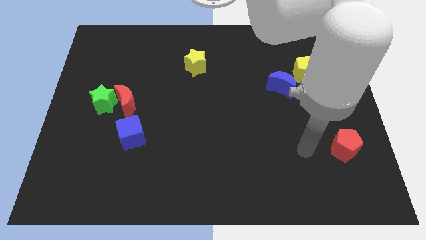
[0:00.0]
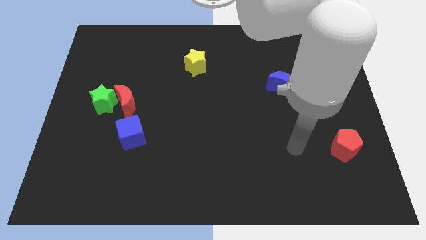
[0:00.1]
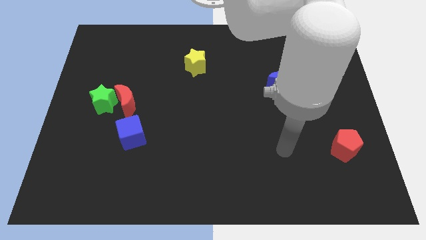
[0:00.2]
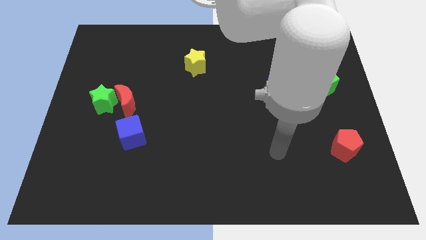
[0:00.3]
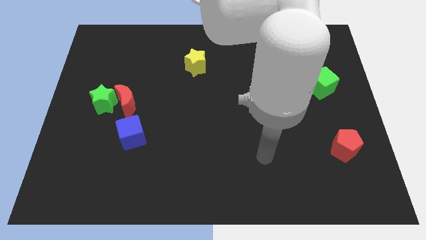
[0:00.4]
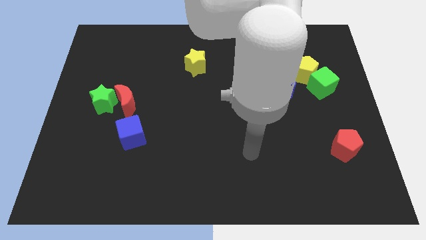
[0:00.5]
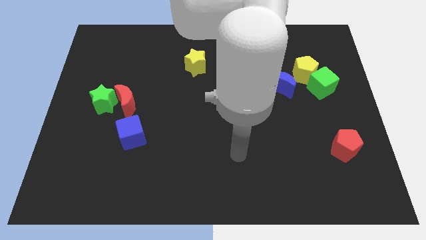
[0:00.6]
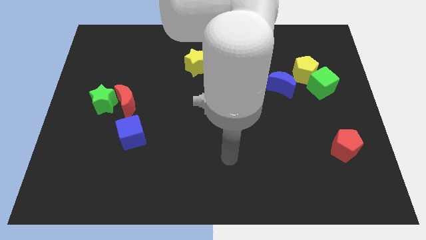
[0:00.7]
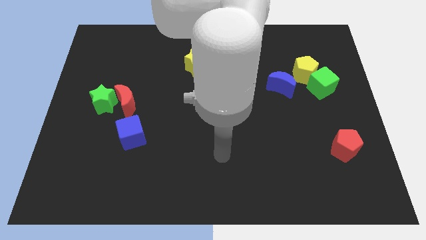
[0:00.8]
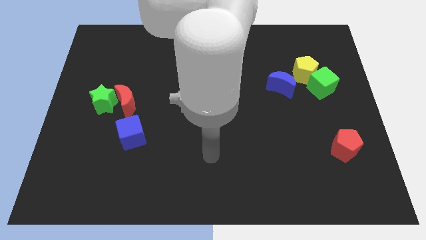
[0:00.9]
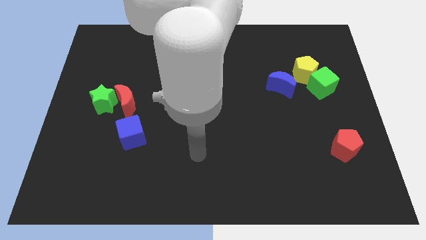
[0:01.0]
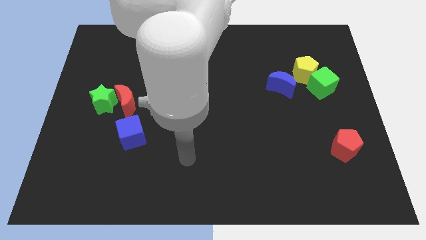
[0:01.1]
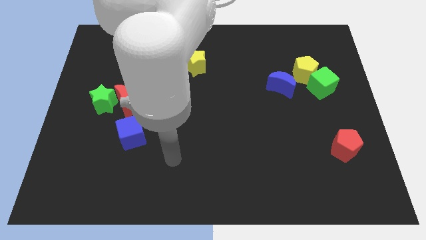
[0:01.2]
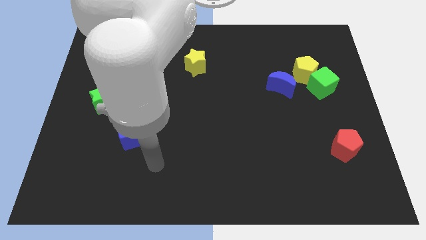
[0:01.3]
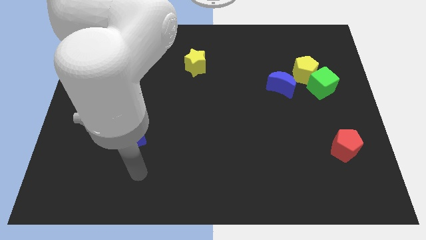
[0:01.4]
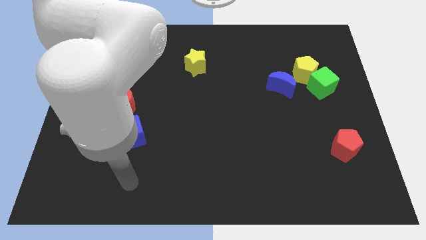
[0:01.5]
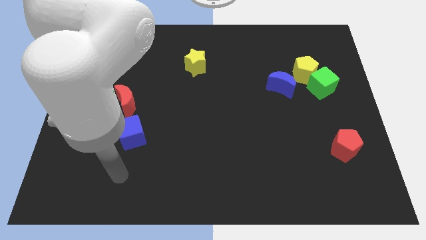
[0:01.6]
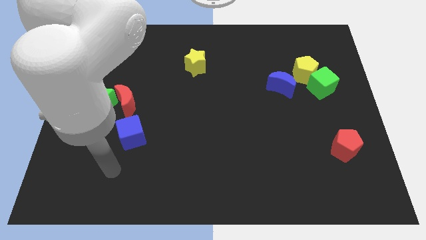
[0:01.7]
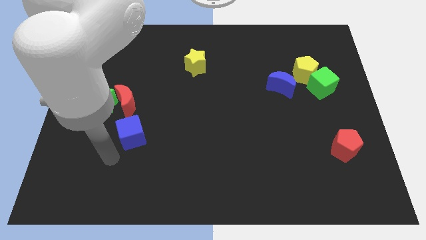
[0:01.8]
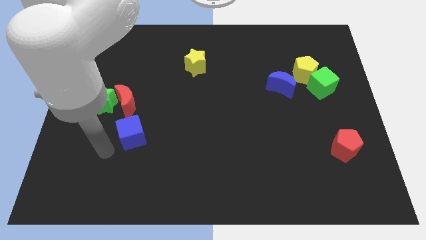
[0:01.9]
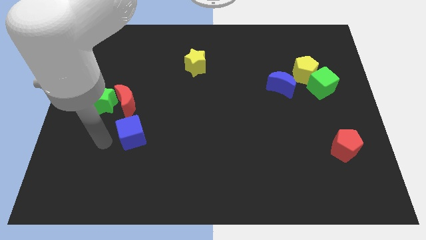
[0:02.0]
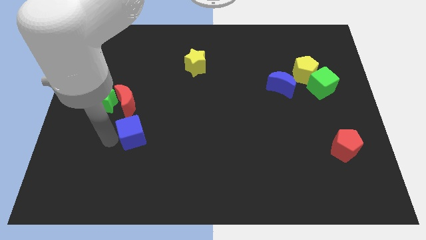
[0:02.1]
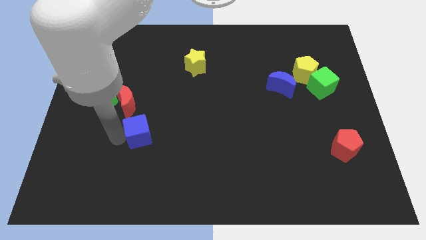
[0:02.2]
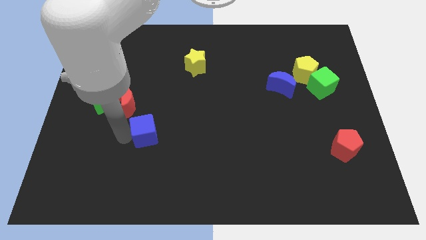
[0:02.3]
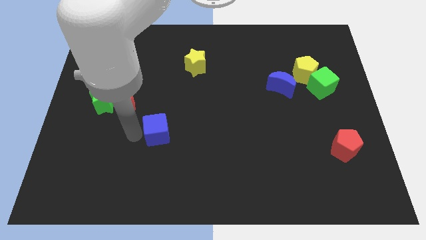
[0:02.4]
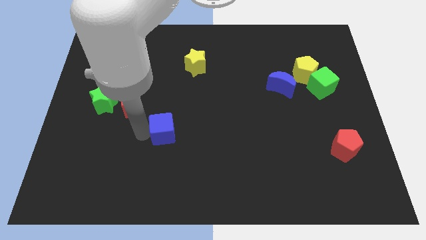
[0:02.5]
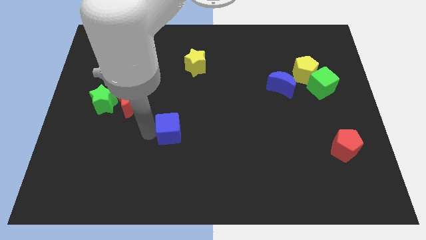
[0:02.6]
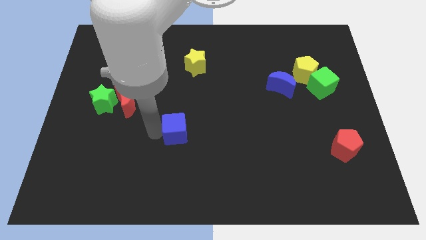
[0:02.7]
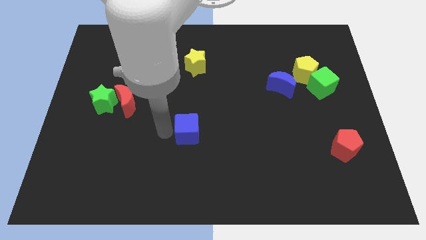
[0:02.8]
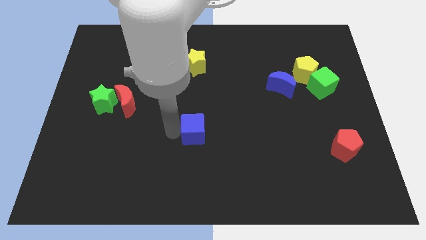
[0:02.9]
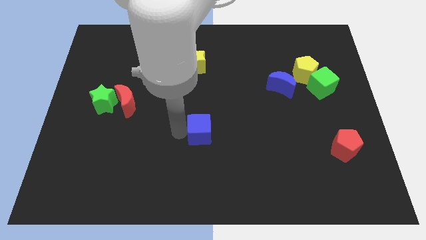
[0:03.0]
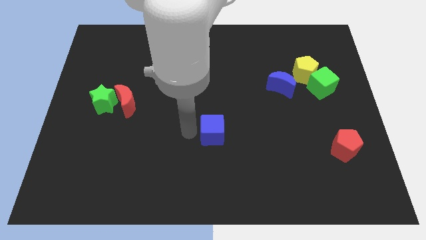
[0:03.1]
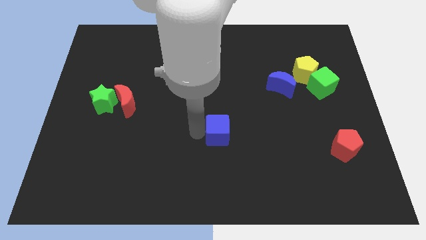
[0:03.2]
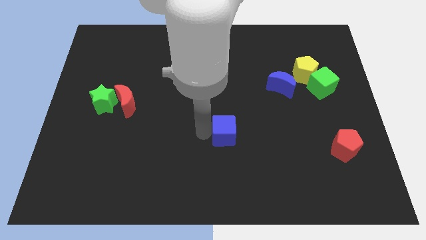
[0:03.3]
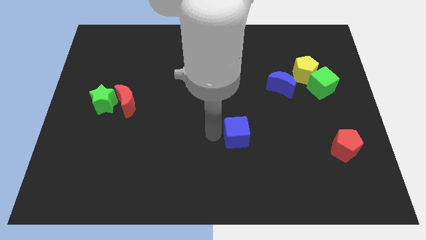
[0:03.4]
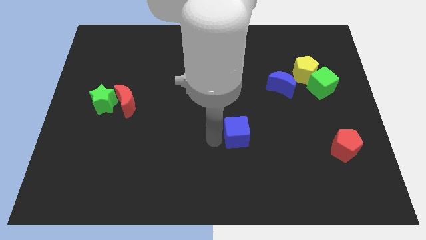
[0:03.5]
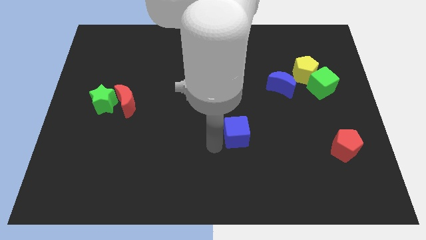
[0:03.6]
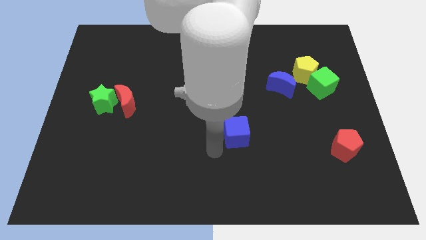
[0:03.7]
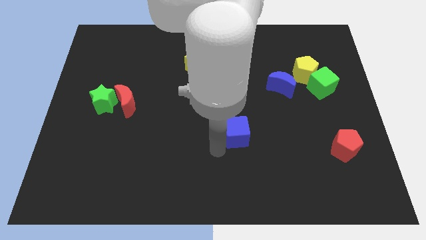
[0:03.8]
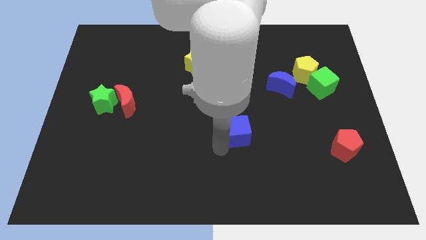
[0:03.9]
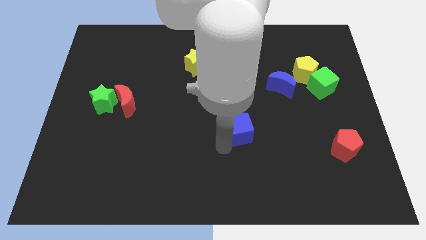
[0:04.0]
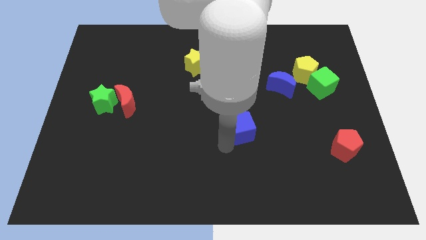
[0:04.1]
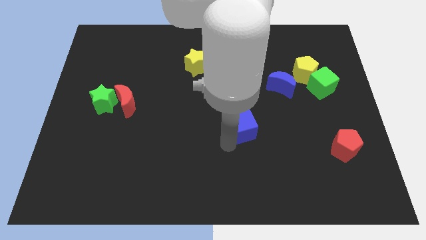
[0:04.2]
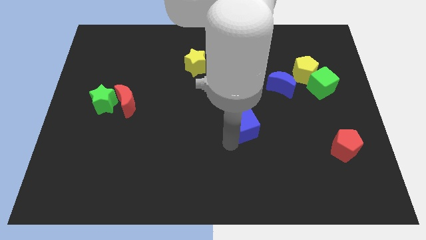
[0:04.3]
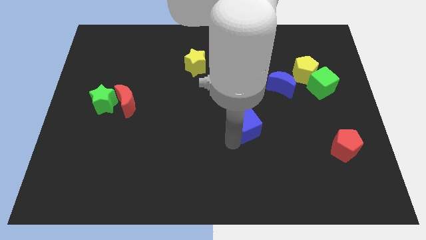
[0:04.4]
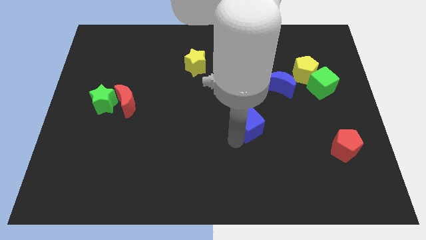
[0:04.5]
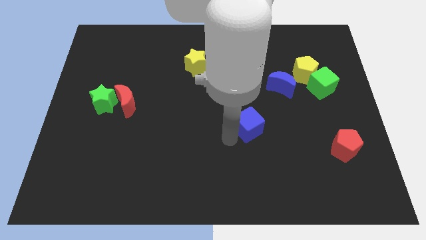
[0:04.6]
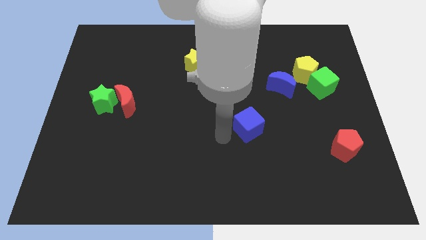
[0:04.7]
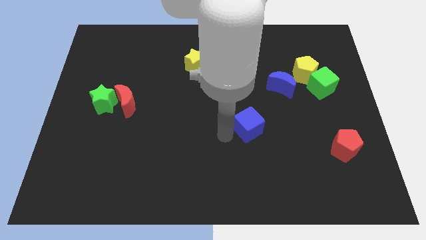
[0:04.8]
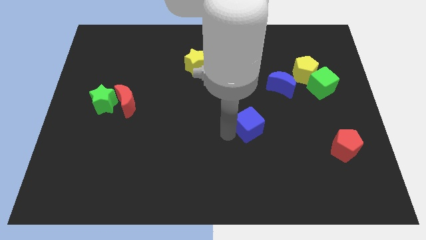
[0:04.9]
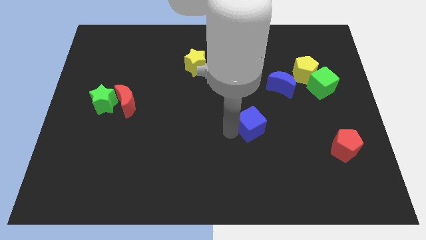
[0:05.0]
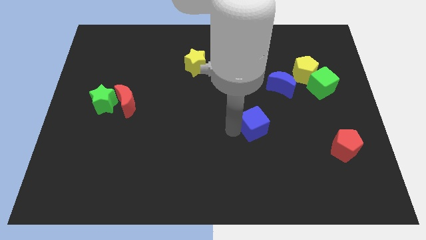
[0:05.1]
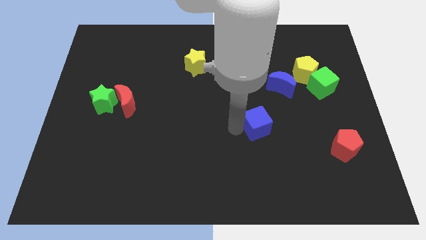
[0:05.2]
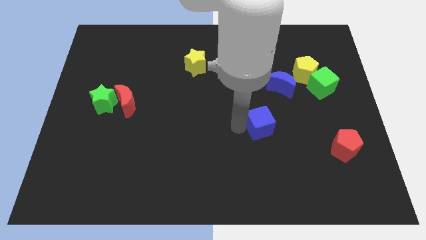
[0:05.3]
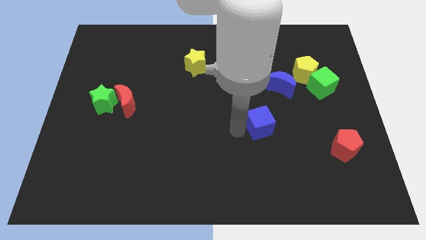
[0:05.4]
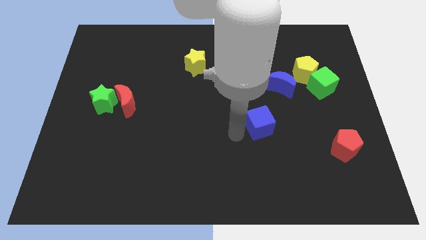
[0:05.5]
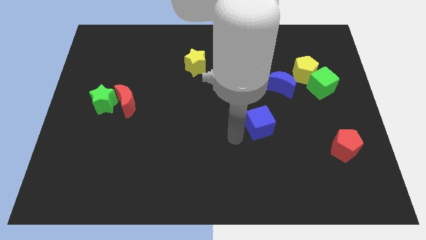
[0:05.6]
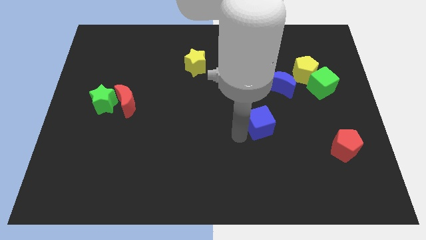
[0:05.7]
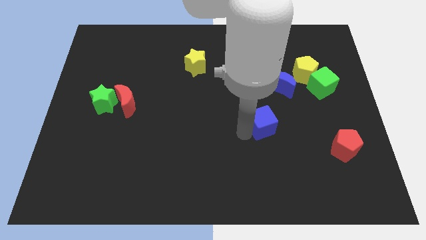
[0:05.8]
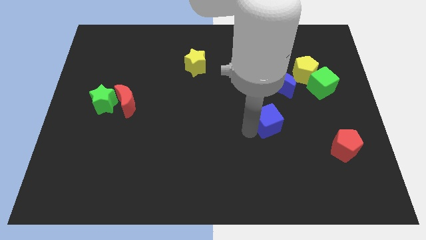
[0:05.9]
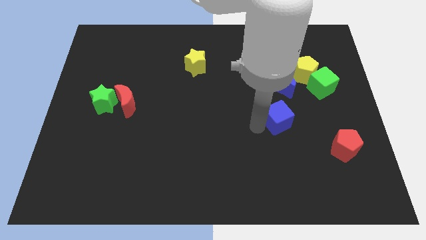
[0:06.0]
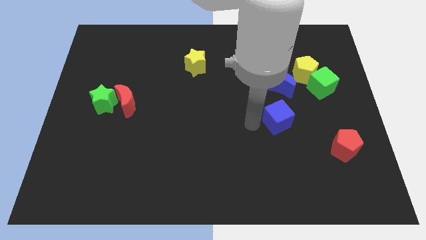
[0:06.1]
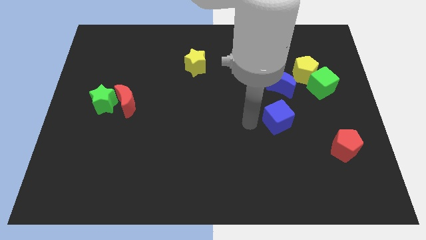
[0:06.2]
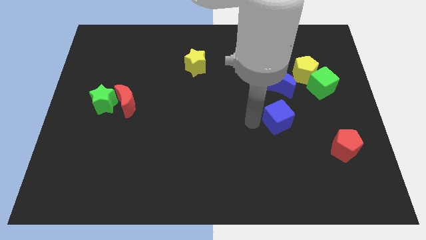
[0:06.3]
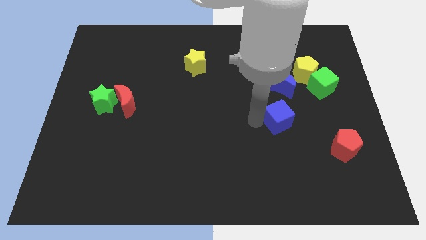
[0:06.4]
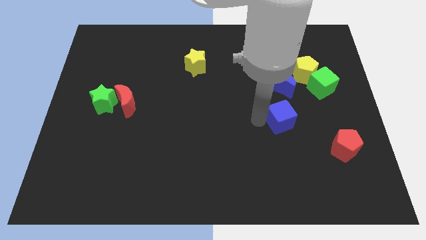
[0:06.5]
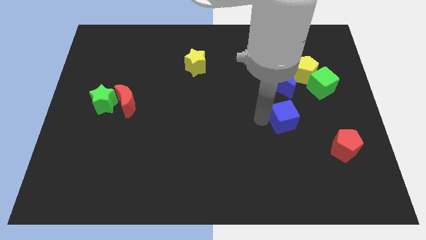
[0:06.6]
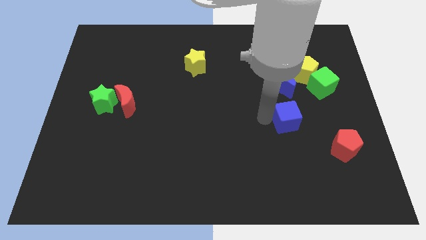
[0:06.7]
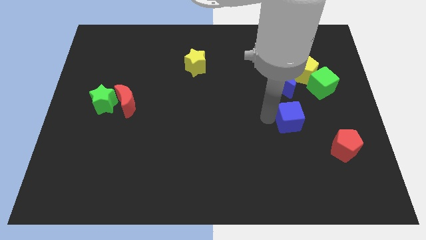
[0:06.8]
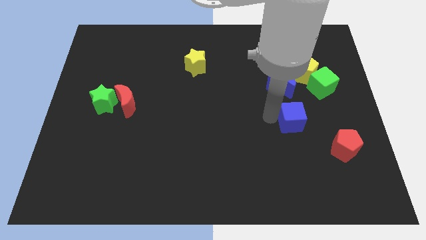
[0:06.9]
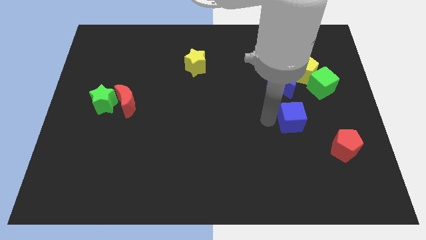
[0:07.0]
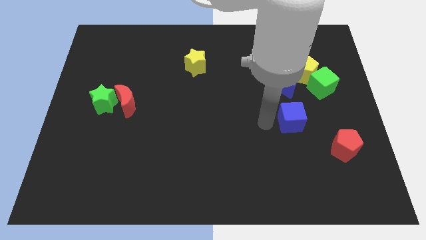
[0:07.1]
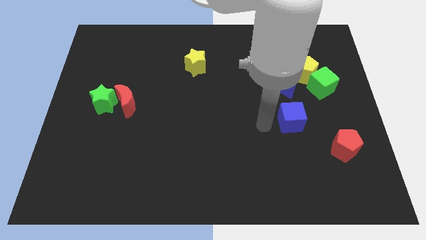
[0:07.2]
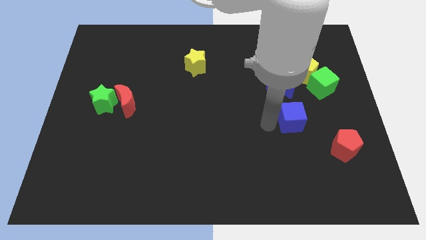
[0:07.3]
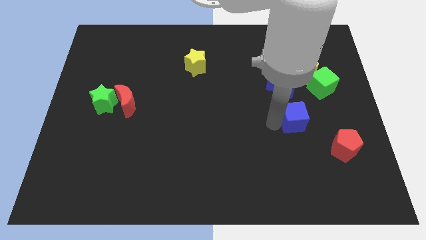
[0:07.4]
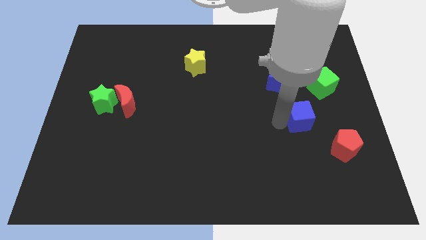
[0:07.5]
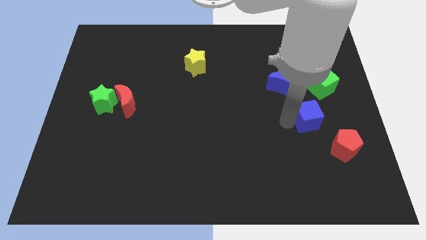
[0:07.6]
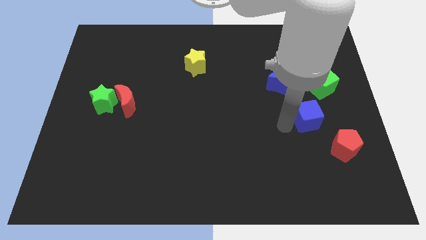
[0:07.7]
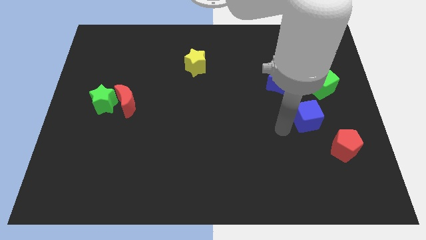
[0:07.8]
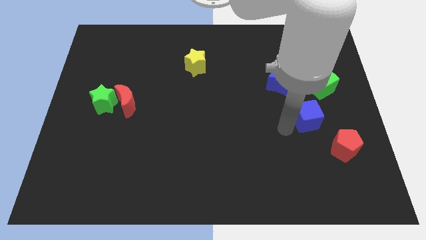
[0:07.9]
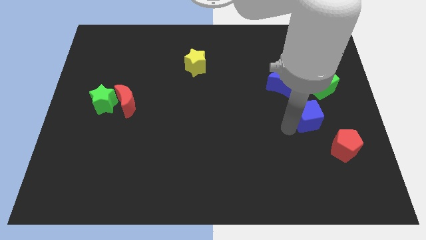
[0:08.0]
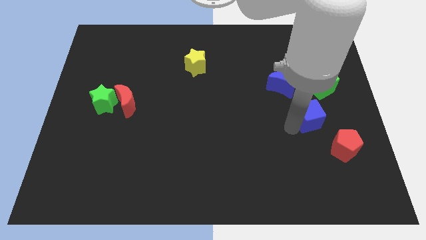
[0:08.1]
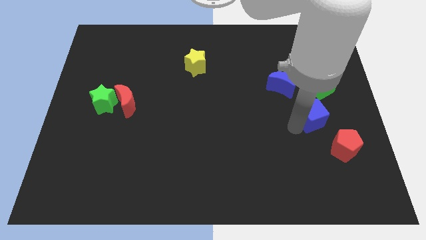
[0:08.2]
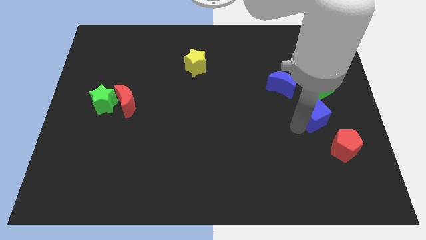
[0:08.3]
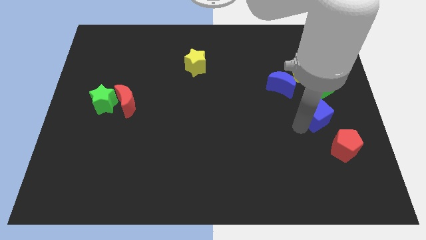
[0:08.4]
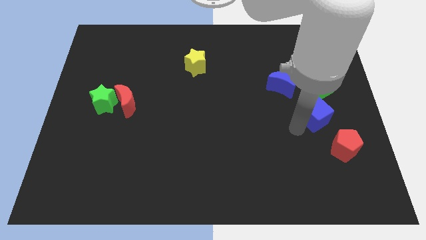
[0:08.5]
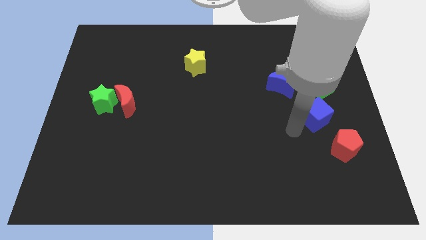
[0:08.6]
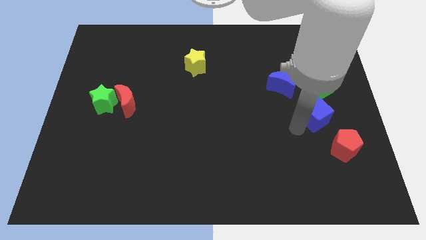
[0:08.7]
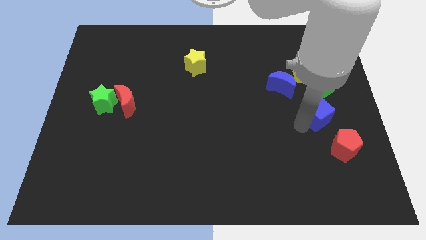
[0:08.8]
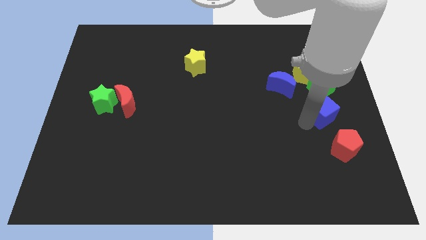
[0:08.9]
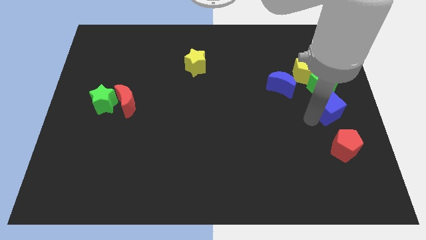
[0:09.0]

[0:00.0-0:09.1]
push the blue cube to the center right
